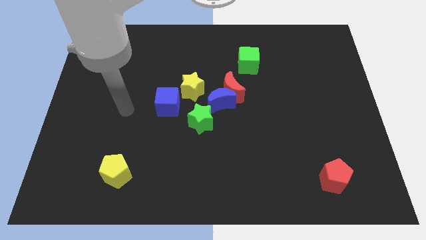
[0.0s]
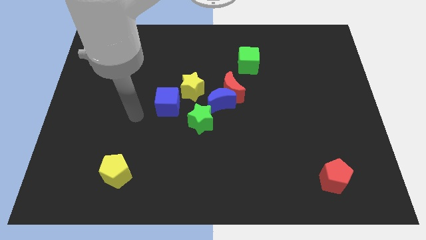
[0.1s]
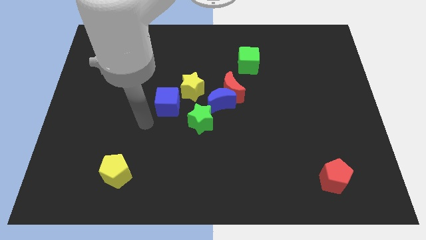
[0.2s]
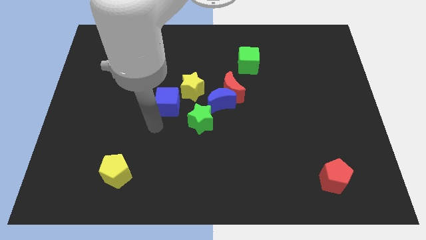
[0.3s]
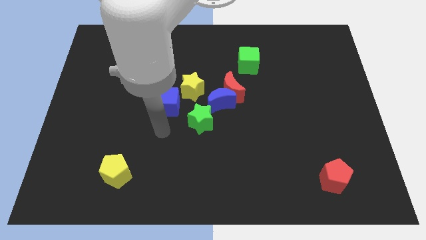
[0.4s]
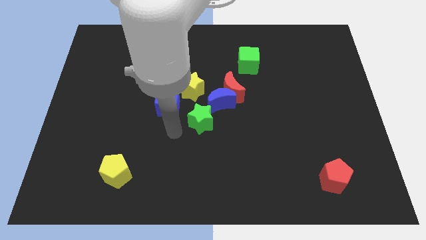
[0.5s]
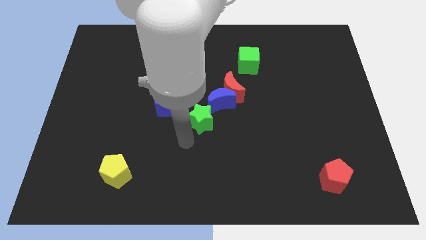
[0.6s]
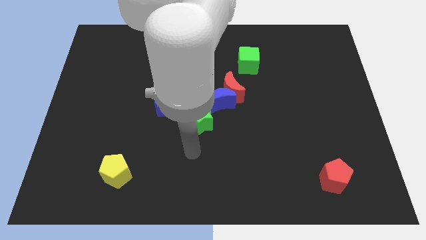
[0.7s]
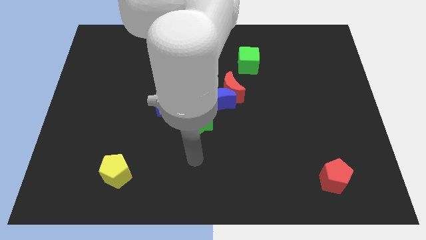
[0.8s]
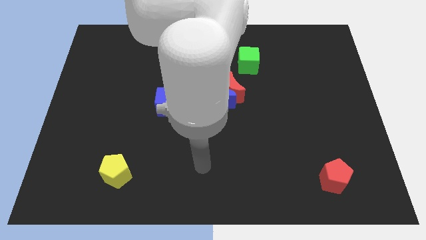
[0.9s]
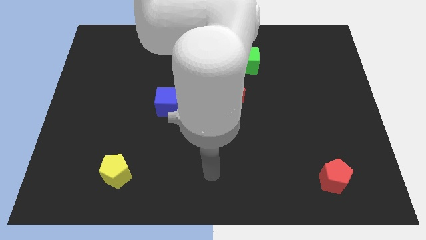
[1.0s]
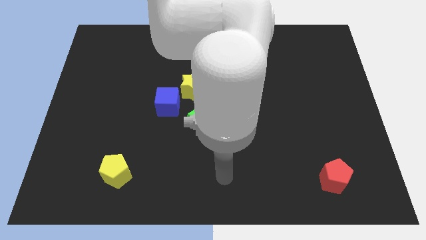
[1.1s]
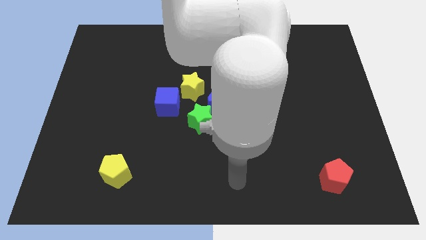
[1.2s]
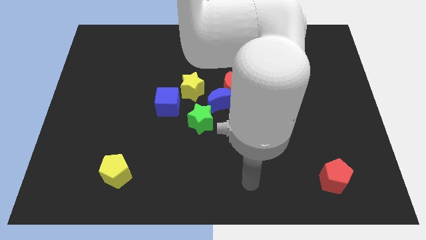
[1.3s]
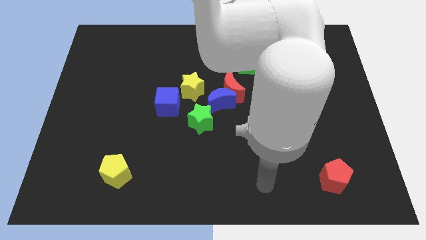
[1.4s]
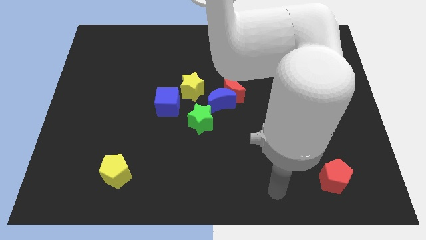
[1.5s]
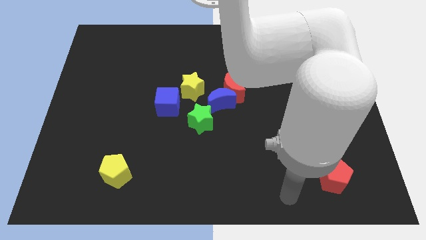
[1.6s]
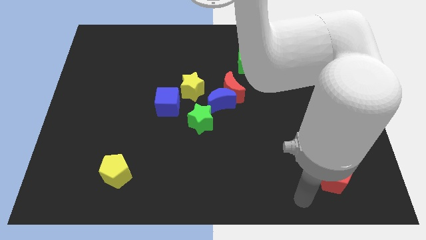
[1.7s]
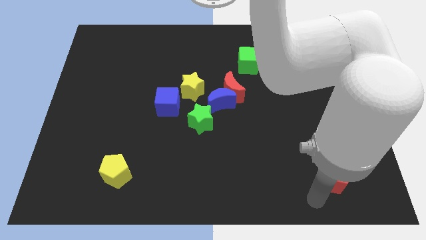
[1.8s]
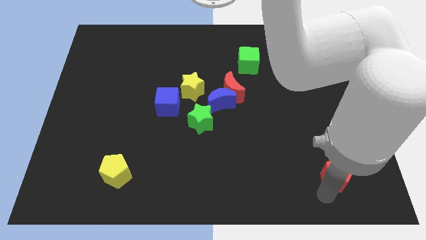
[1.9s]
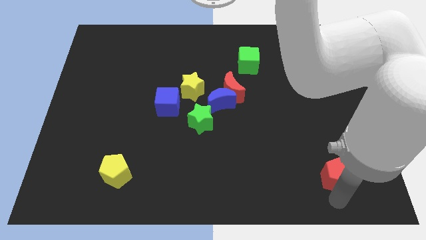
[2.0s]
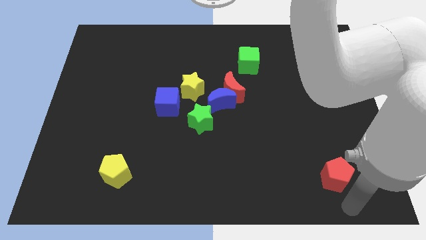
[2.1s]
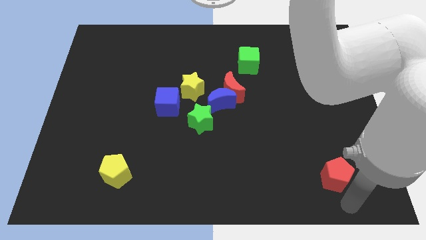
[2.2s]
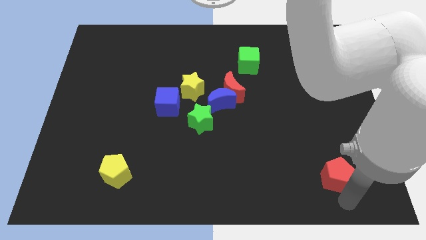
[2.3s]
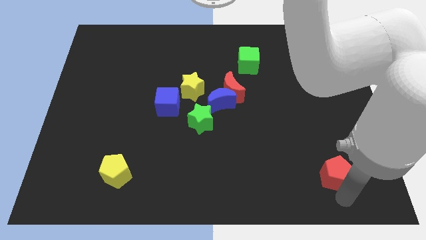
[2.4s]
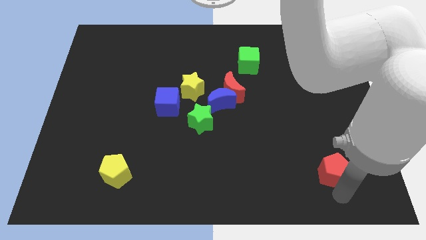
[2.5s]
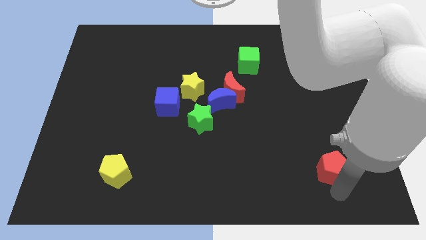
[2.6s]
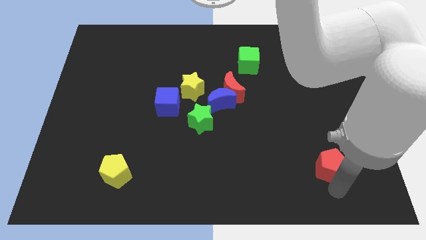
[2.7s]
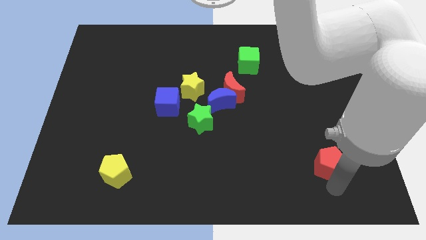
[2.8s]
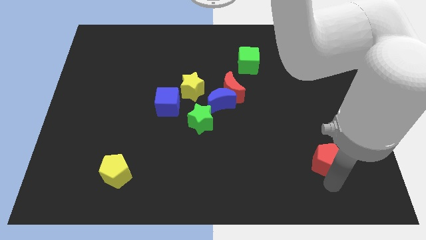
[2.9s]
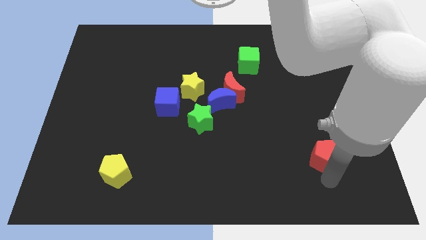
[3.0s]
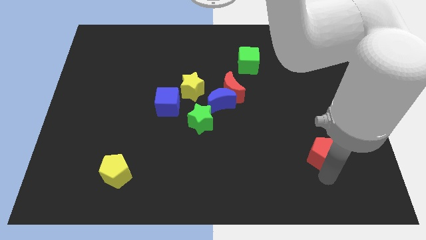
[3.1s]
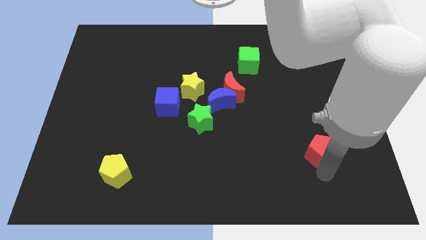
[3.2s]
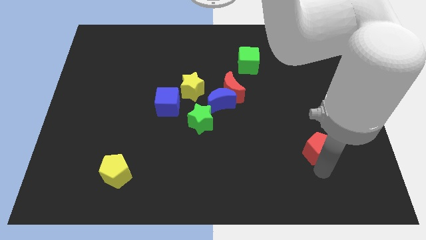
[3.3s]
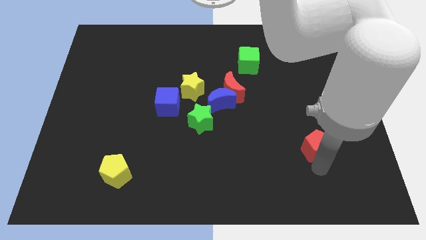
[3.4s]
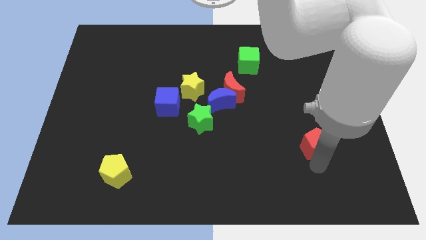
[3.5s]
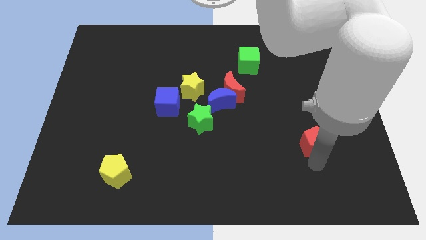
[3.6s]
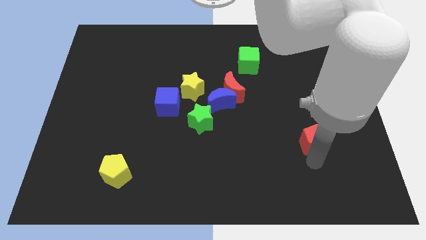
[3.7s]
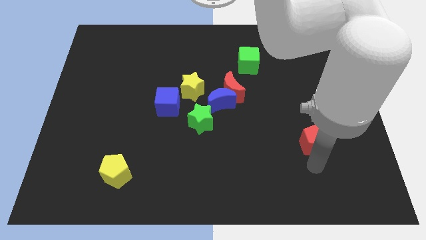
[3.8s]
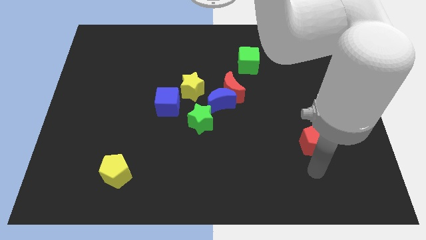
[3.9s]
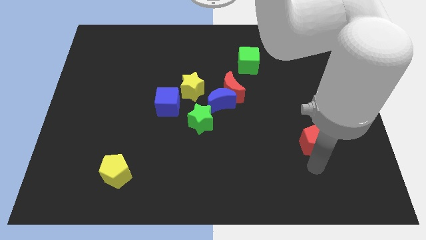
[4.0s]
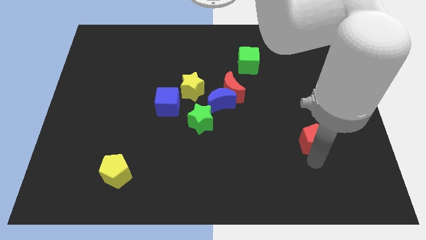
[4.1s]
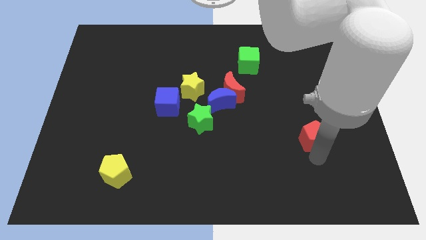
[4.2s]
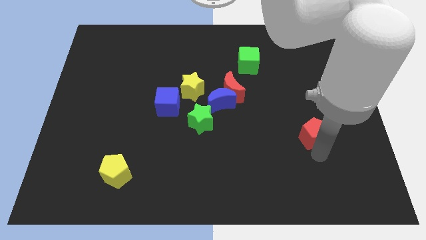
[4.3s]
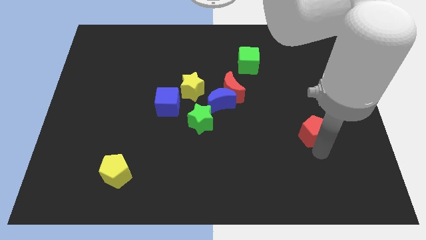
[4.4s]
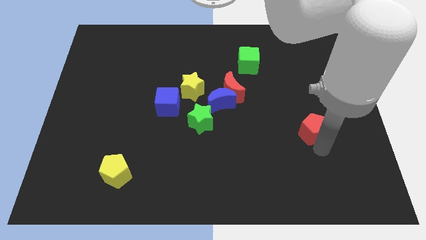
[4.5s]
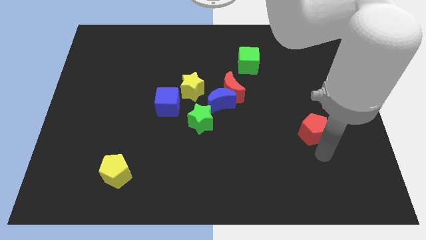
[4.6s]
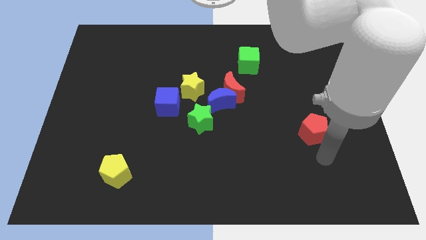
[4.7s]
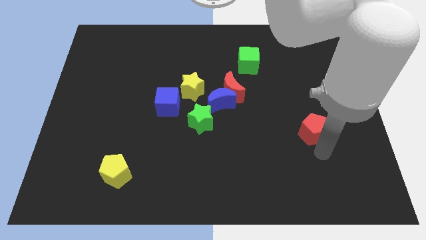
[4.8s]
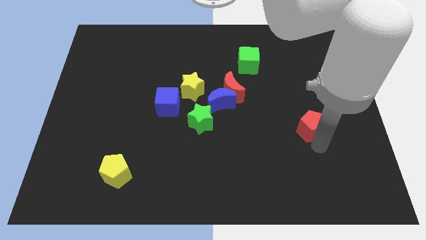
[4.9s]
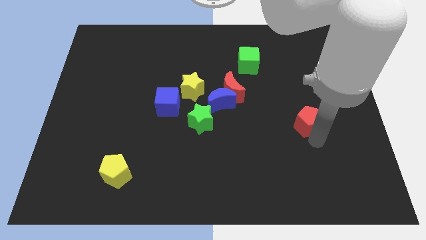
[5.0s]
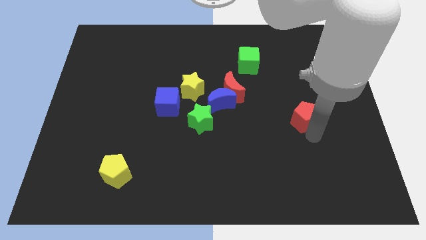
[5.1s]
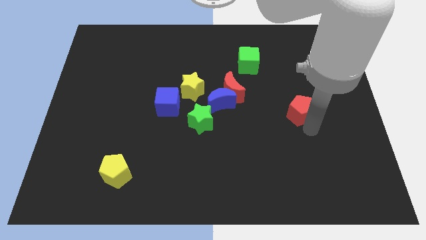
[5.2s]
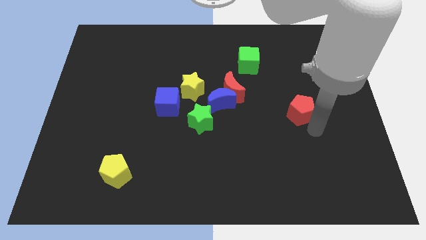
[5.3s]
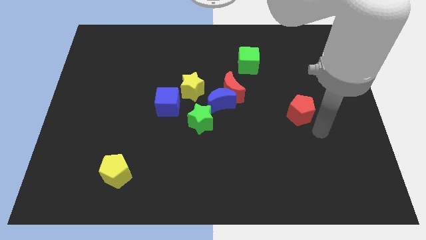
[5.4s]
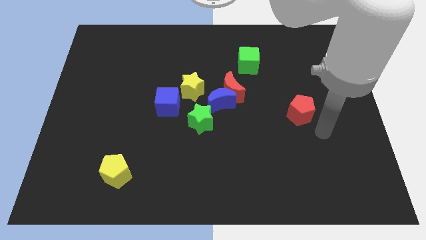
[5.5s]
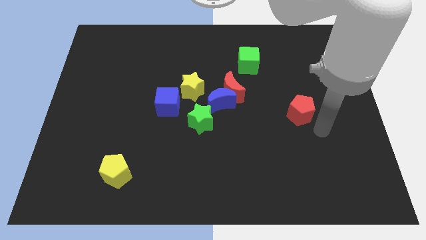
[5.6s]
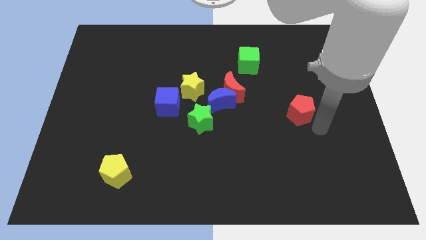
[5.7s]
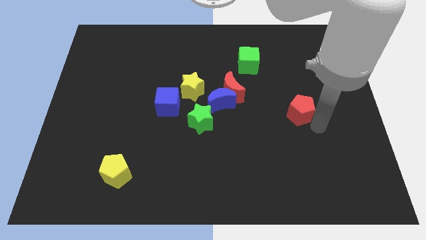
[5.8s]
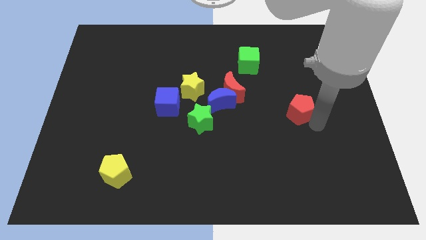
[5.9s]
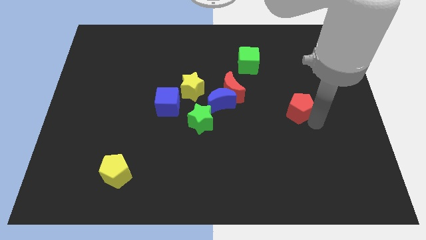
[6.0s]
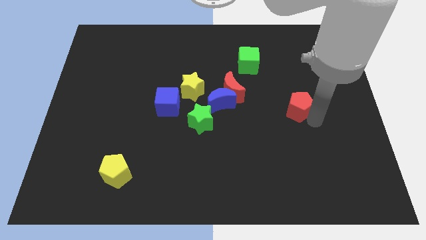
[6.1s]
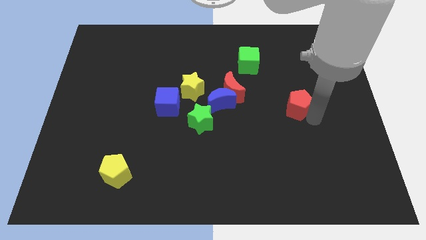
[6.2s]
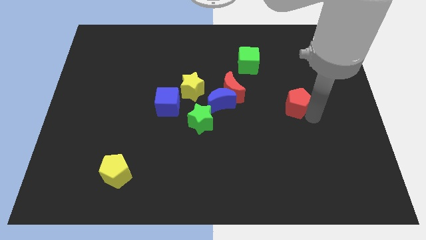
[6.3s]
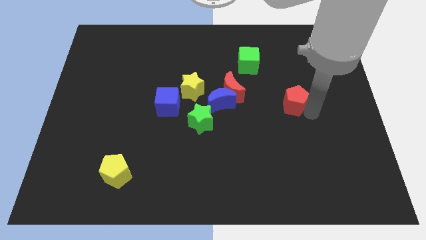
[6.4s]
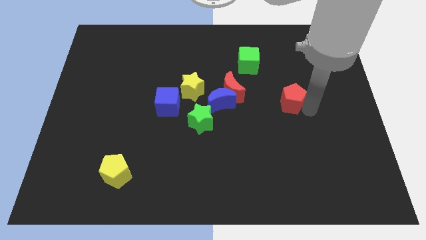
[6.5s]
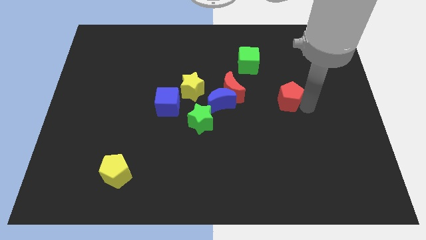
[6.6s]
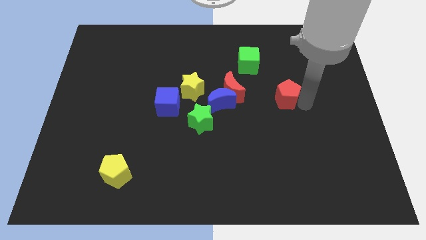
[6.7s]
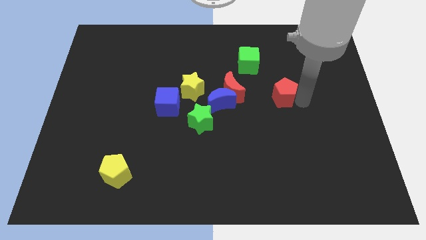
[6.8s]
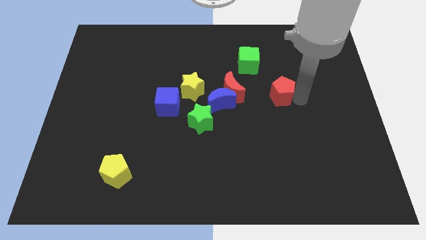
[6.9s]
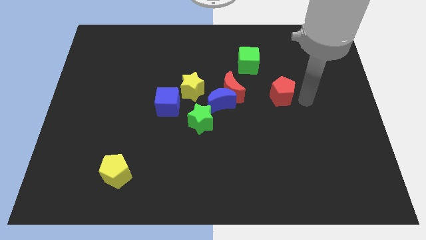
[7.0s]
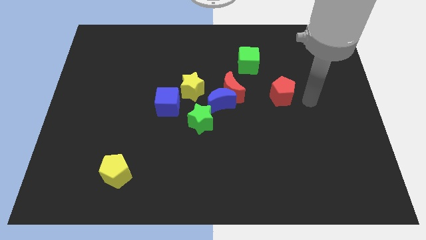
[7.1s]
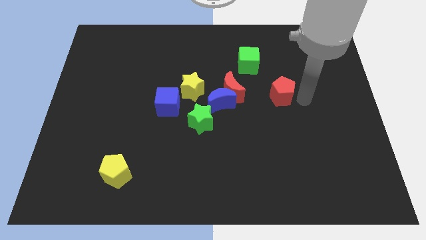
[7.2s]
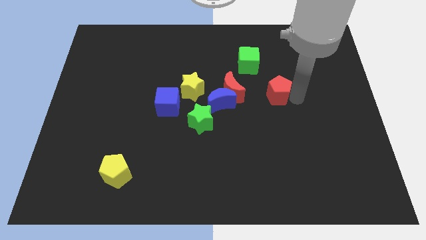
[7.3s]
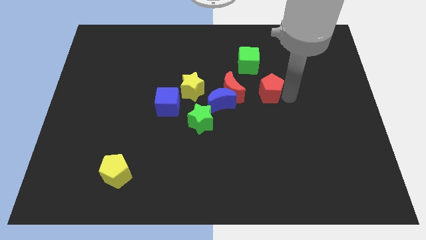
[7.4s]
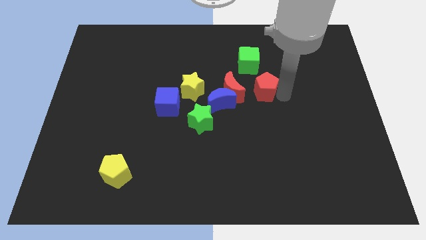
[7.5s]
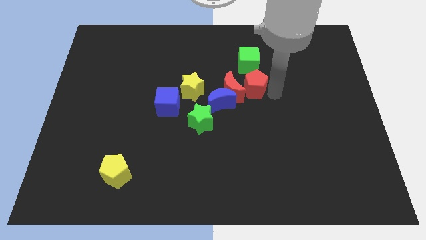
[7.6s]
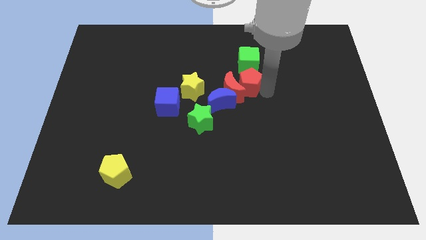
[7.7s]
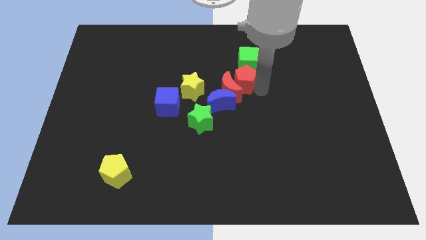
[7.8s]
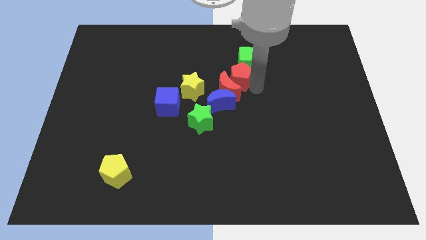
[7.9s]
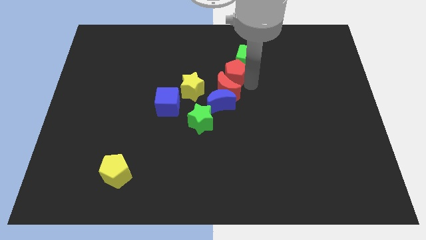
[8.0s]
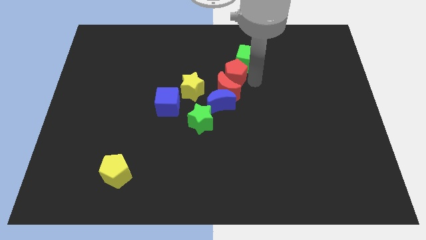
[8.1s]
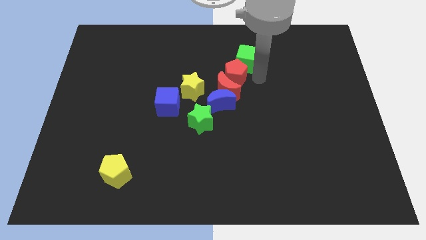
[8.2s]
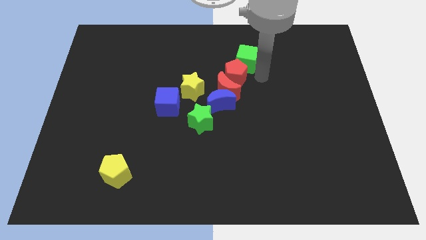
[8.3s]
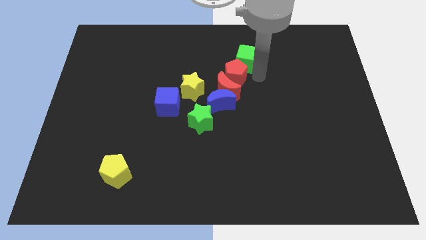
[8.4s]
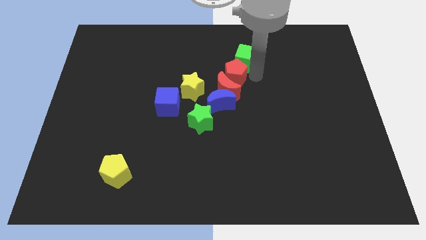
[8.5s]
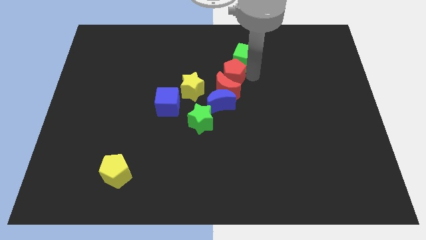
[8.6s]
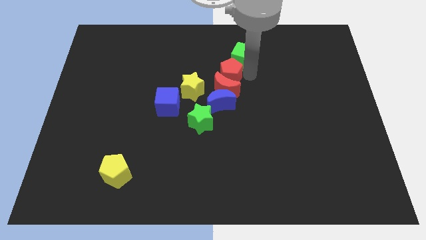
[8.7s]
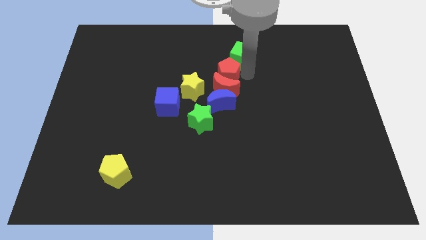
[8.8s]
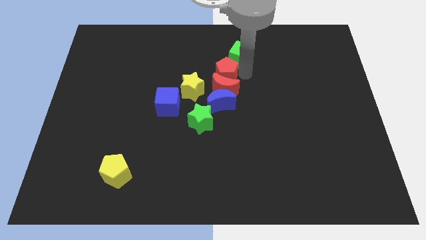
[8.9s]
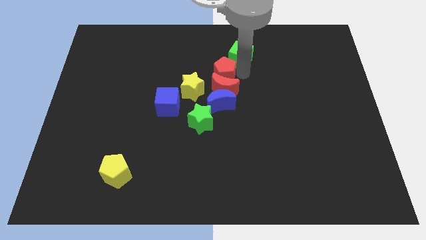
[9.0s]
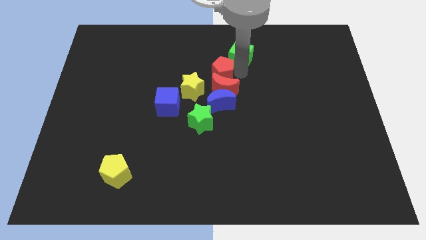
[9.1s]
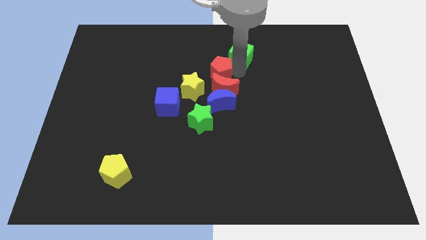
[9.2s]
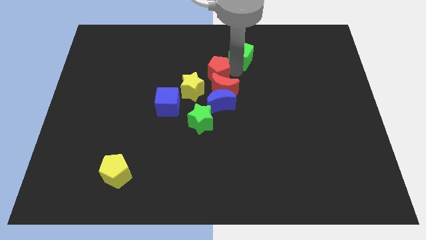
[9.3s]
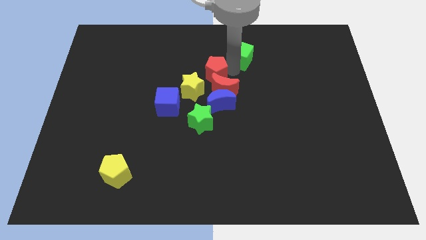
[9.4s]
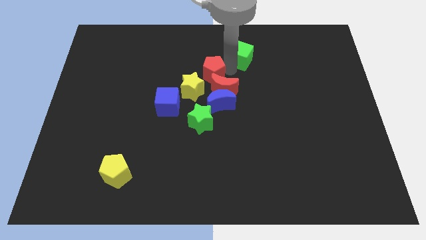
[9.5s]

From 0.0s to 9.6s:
push the red pentagon to the top of the green star
